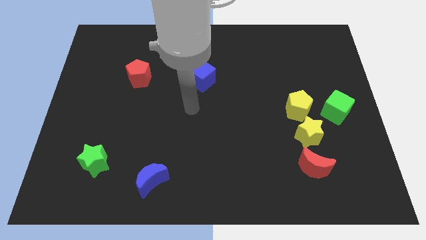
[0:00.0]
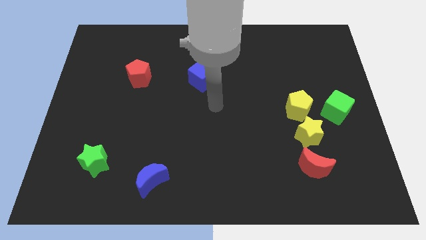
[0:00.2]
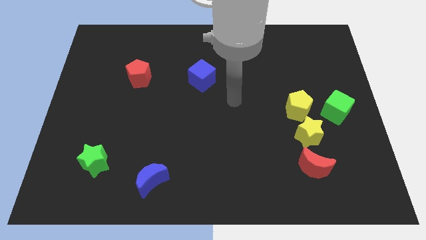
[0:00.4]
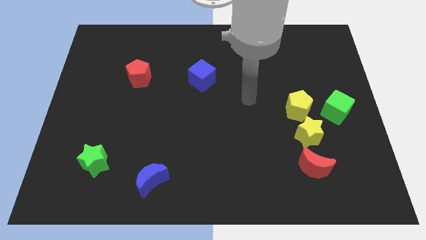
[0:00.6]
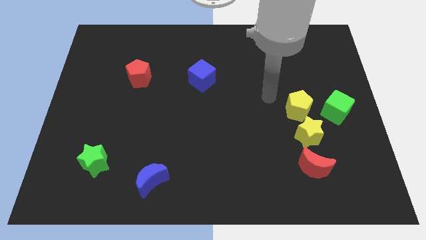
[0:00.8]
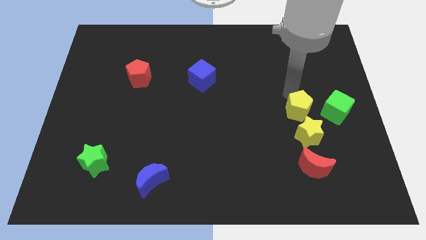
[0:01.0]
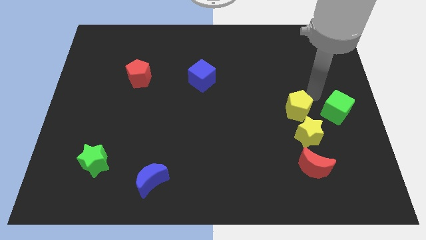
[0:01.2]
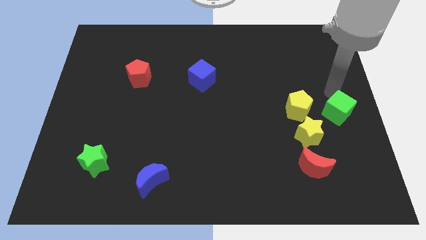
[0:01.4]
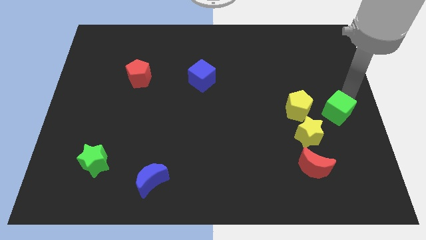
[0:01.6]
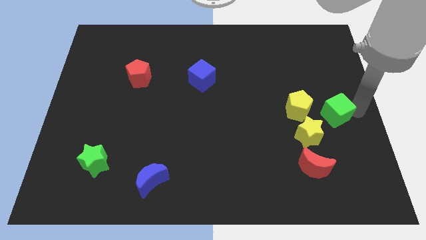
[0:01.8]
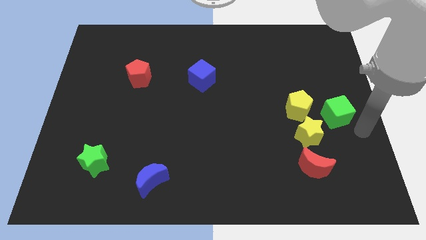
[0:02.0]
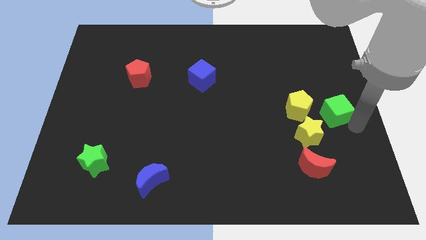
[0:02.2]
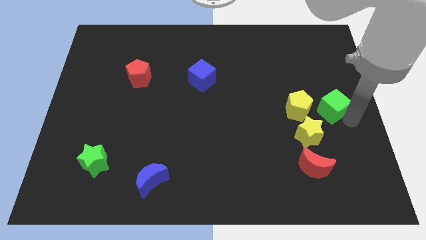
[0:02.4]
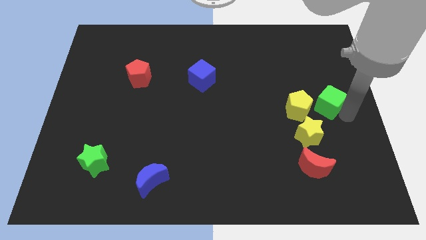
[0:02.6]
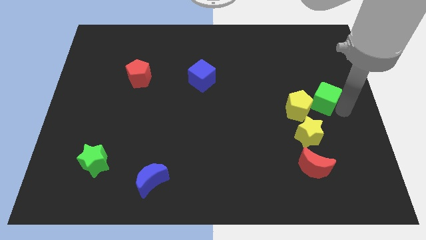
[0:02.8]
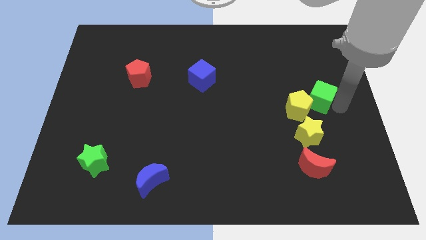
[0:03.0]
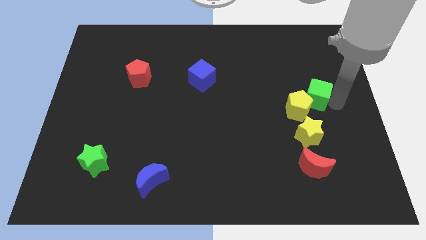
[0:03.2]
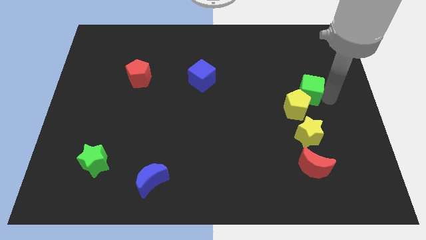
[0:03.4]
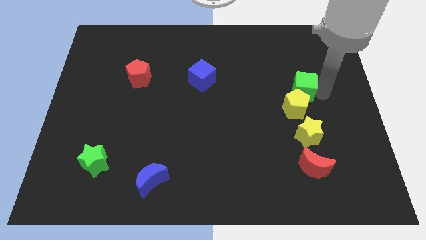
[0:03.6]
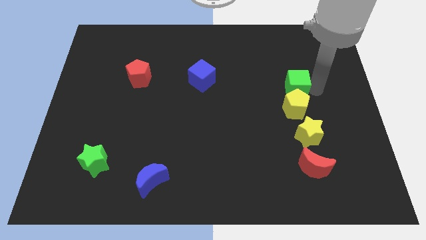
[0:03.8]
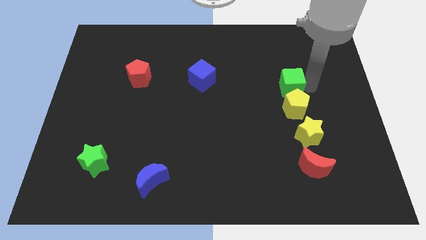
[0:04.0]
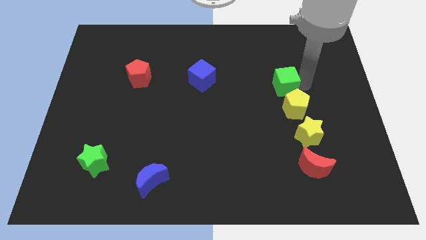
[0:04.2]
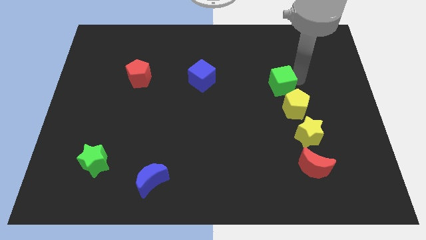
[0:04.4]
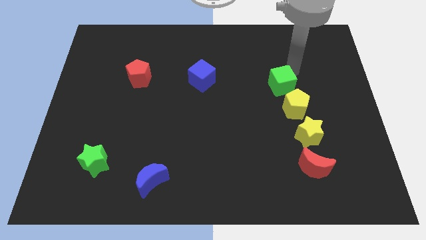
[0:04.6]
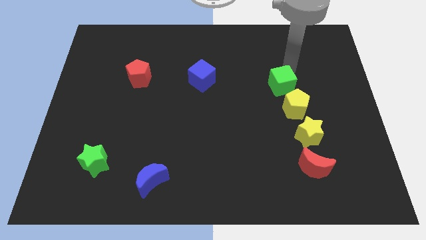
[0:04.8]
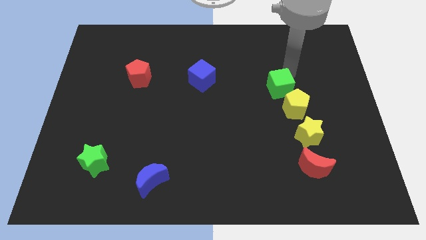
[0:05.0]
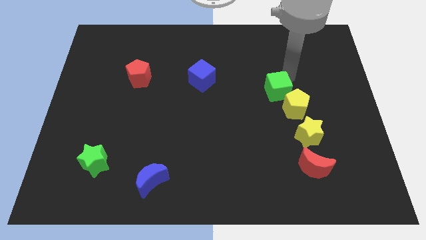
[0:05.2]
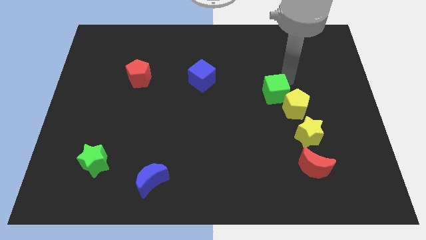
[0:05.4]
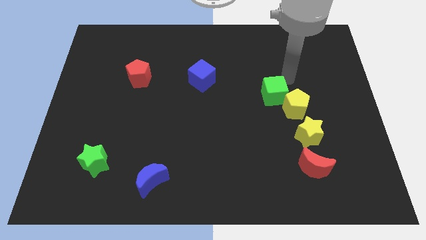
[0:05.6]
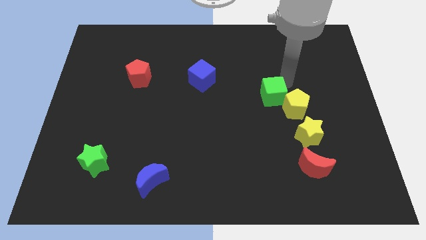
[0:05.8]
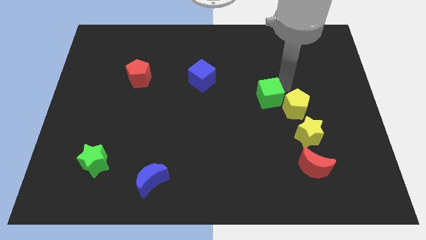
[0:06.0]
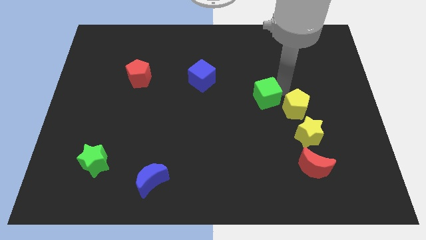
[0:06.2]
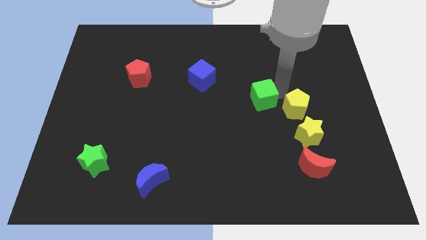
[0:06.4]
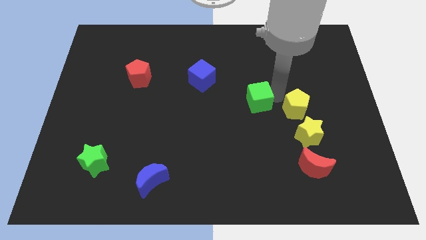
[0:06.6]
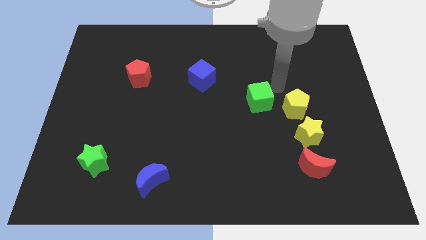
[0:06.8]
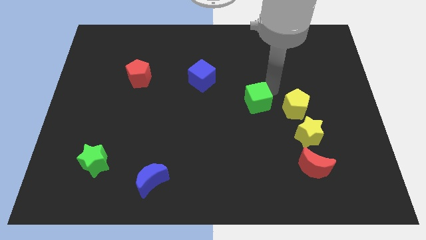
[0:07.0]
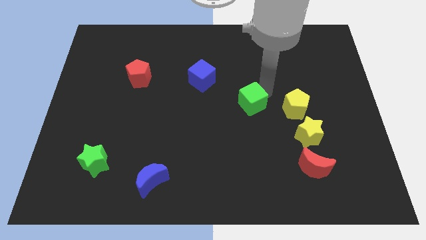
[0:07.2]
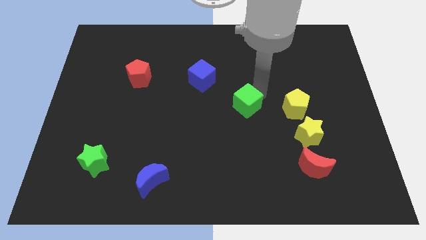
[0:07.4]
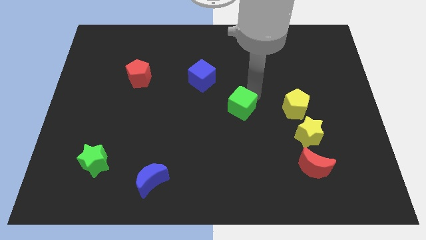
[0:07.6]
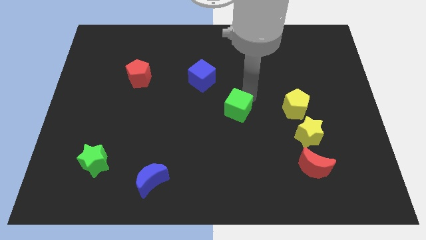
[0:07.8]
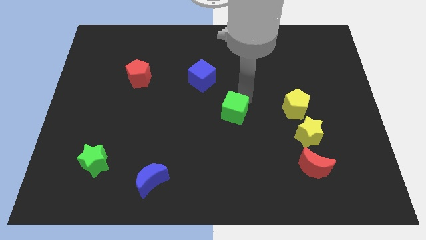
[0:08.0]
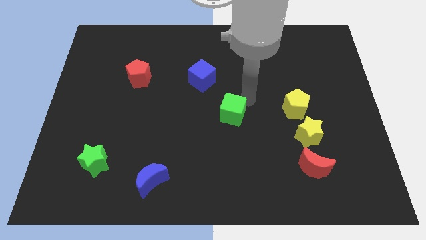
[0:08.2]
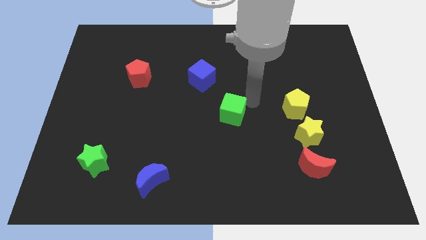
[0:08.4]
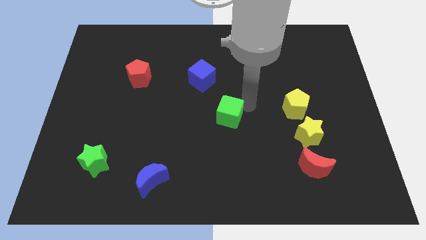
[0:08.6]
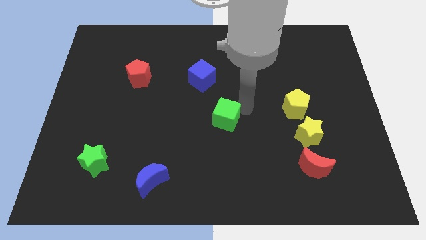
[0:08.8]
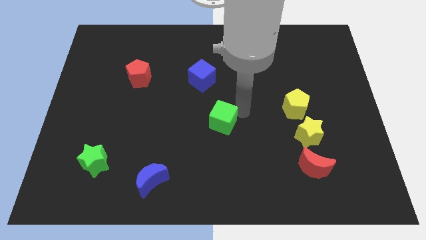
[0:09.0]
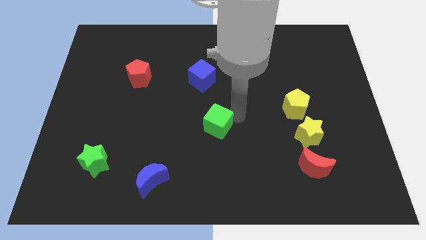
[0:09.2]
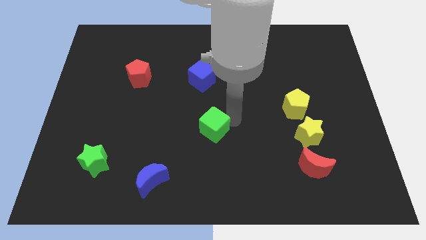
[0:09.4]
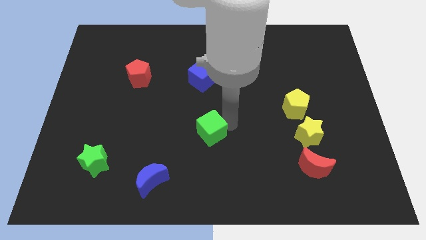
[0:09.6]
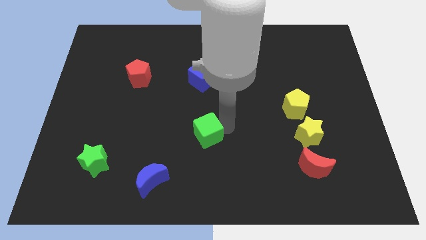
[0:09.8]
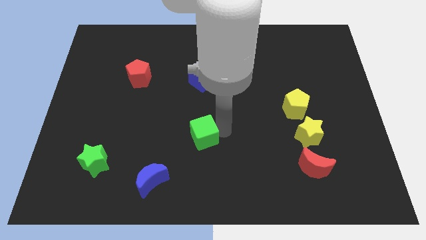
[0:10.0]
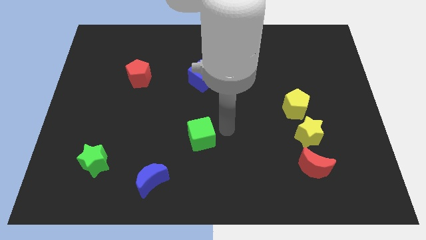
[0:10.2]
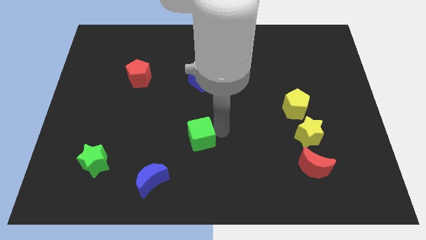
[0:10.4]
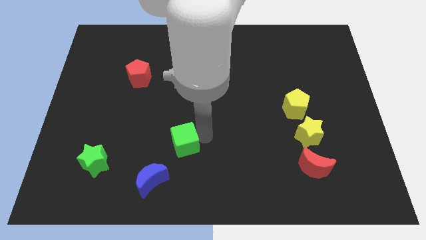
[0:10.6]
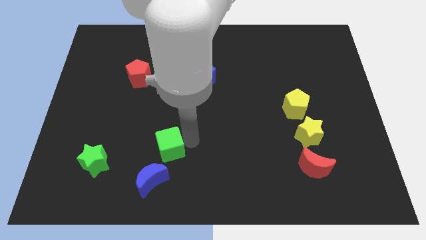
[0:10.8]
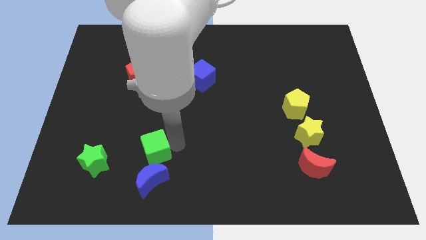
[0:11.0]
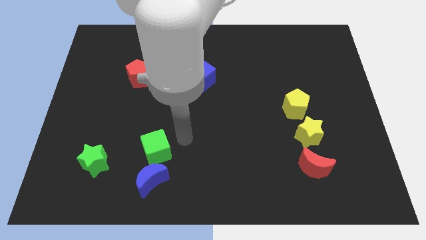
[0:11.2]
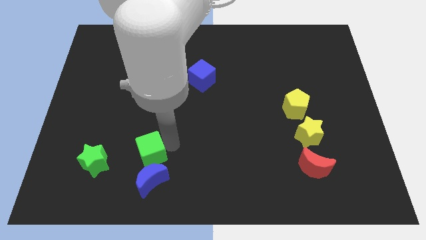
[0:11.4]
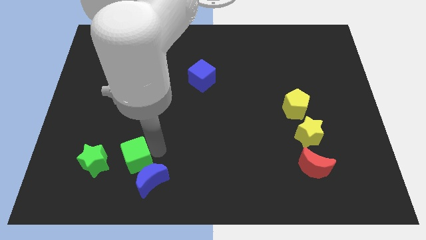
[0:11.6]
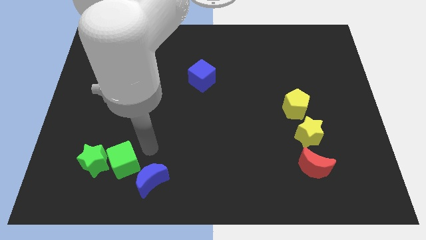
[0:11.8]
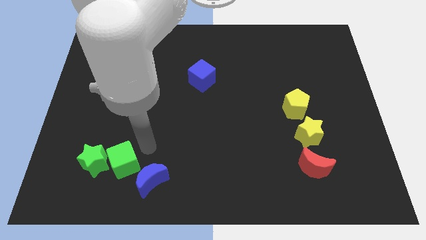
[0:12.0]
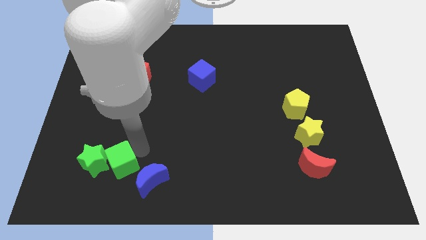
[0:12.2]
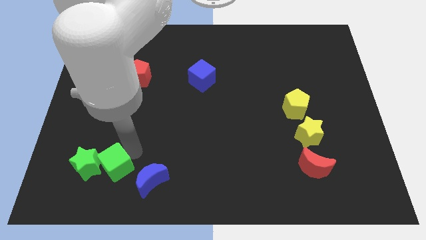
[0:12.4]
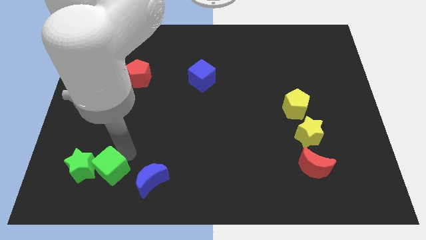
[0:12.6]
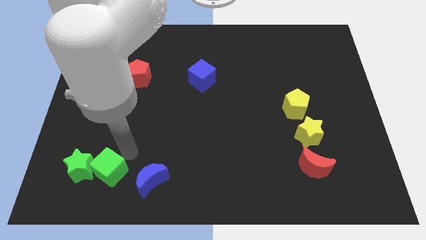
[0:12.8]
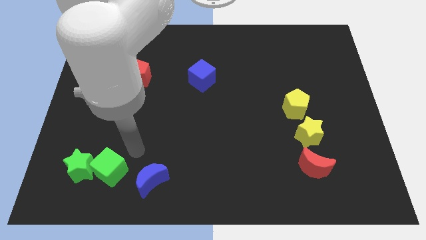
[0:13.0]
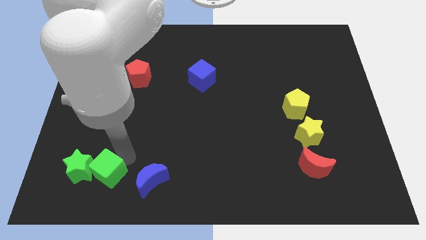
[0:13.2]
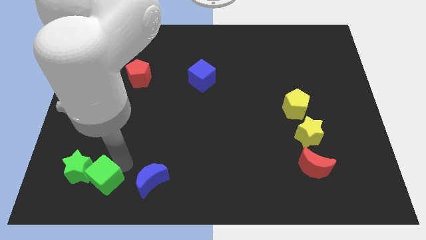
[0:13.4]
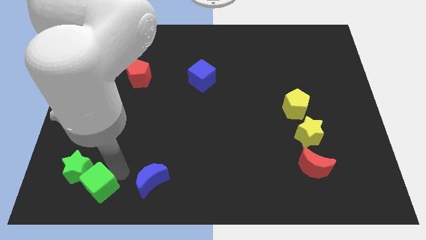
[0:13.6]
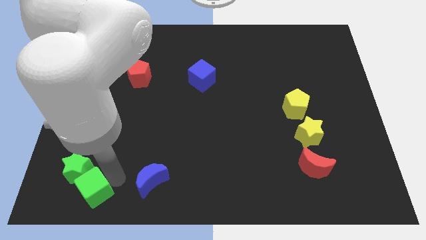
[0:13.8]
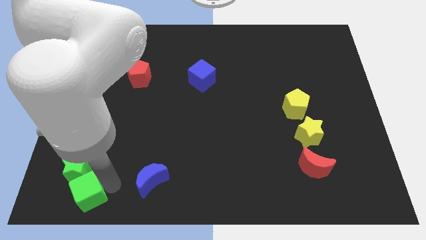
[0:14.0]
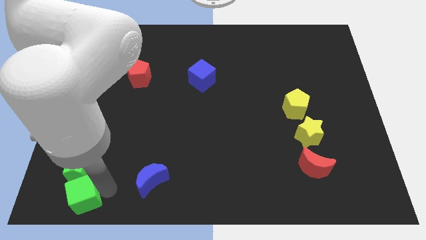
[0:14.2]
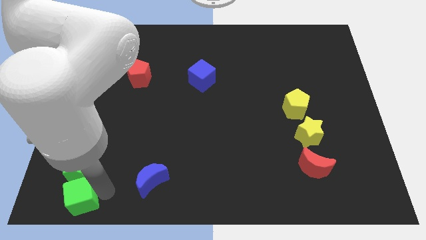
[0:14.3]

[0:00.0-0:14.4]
push the green cube to the bottom left
